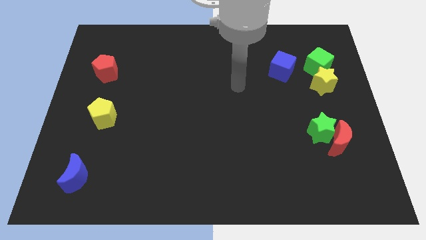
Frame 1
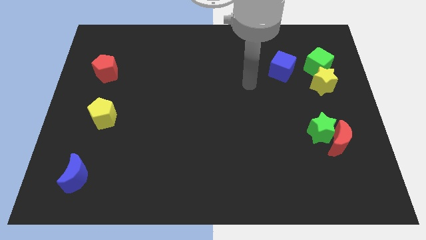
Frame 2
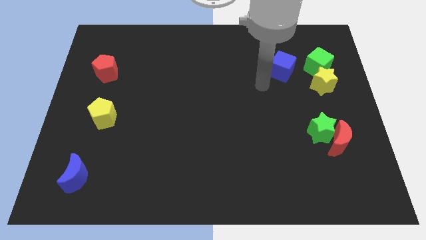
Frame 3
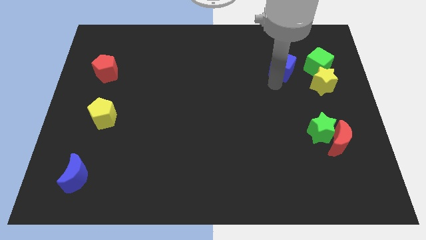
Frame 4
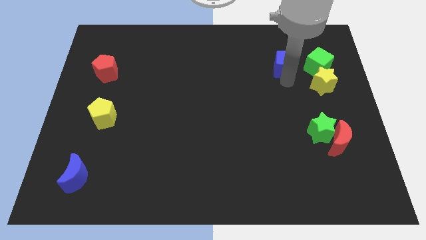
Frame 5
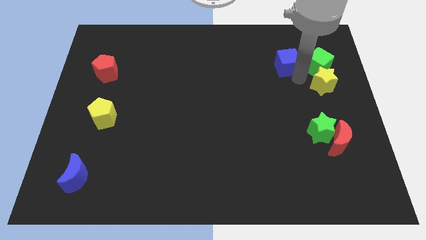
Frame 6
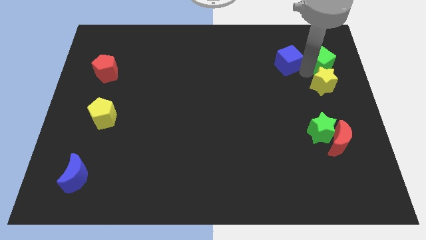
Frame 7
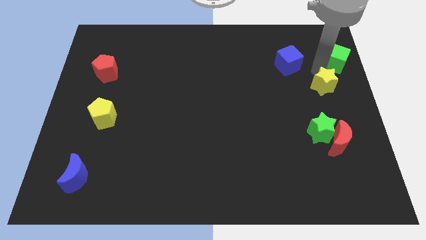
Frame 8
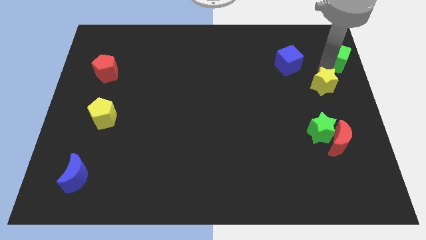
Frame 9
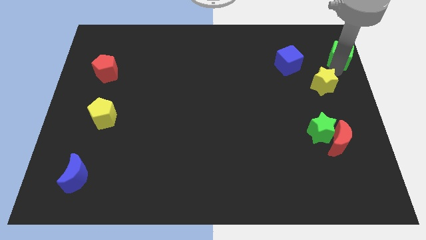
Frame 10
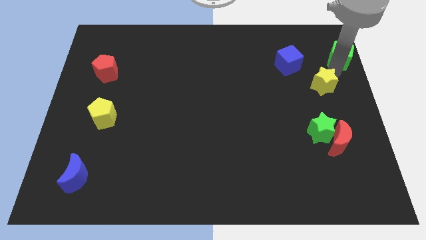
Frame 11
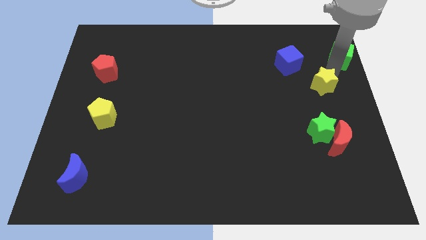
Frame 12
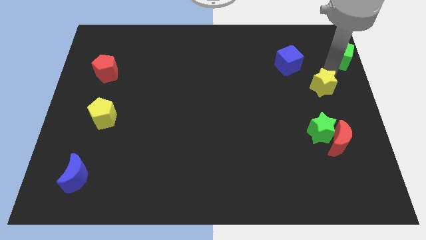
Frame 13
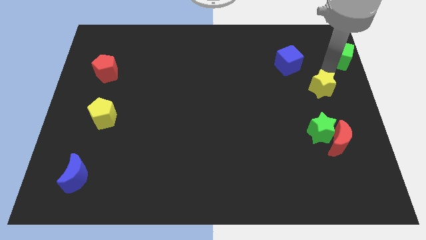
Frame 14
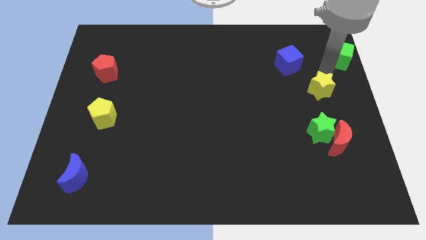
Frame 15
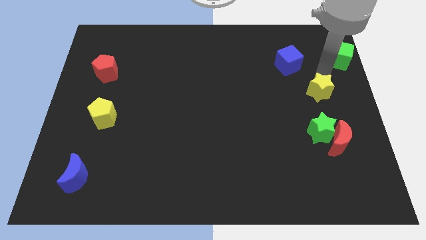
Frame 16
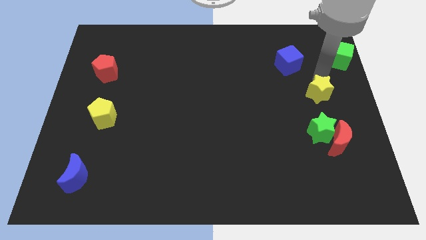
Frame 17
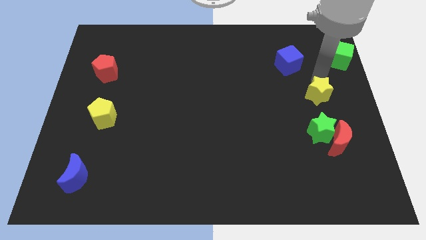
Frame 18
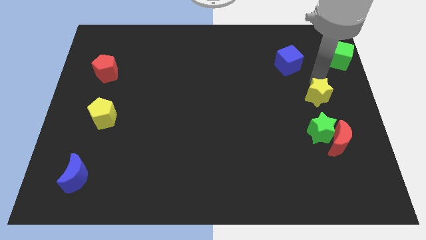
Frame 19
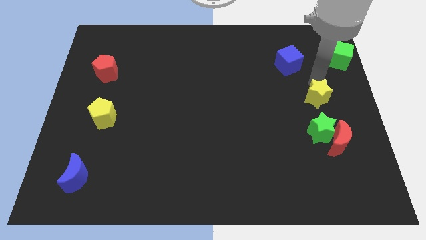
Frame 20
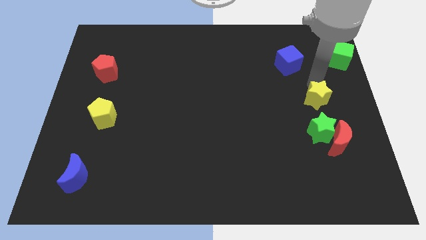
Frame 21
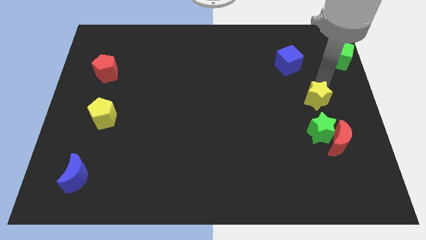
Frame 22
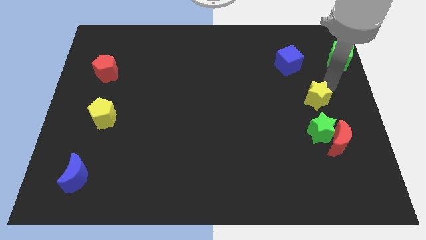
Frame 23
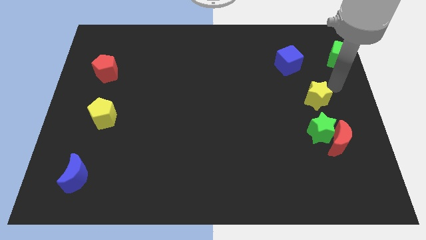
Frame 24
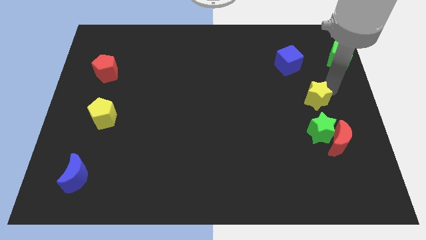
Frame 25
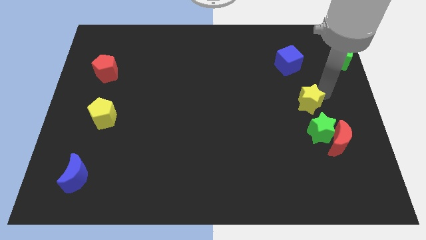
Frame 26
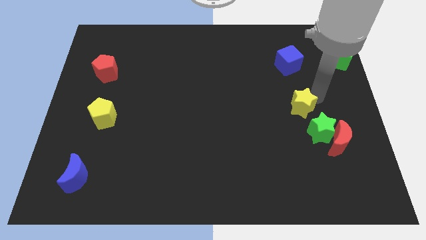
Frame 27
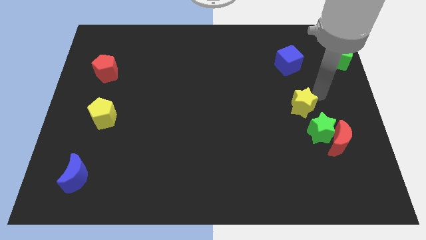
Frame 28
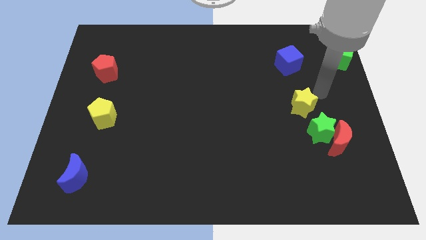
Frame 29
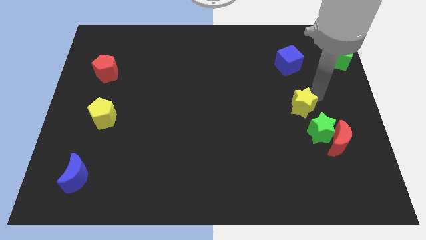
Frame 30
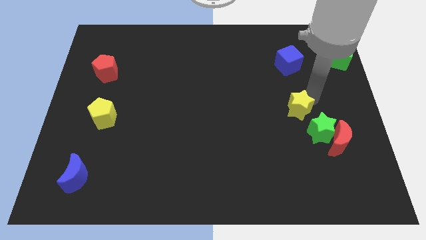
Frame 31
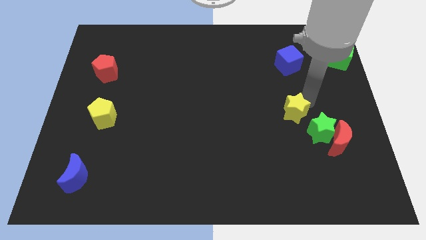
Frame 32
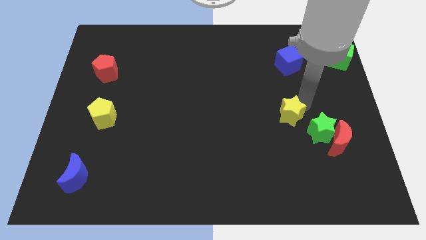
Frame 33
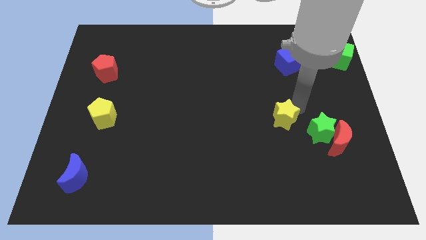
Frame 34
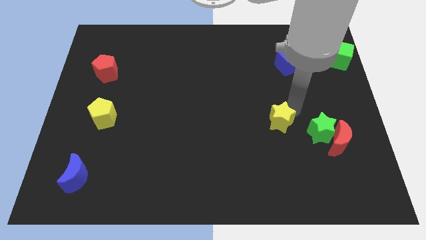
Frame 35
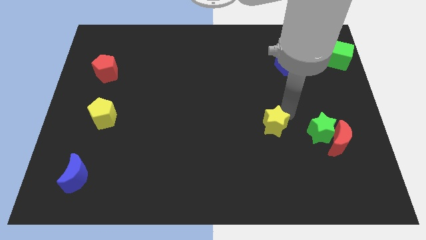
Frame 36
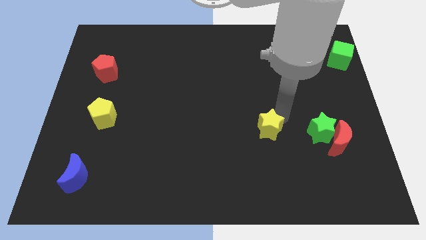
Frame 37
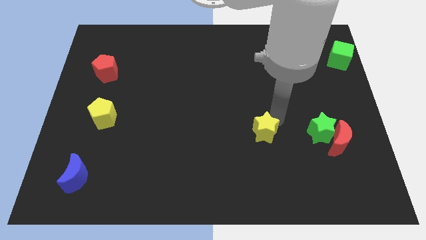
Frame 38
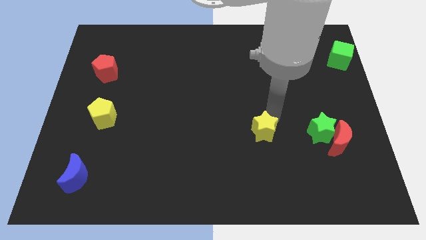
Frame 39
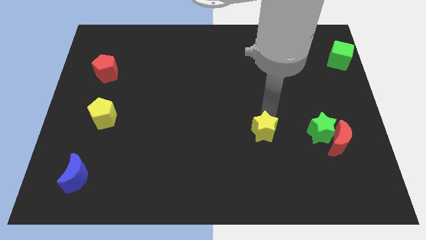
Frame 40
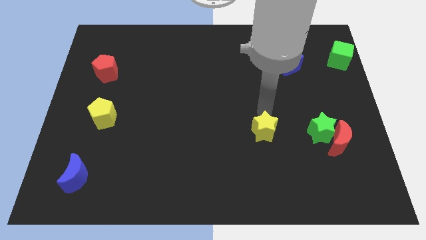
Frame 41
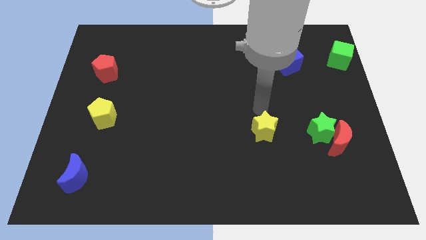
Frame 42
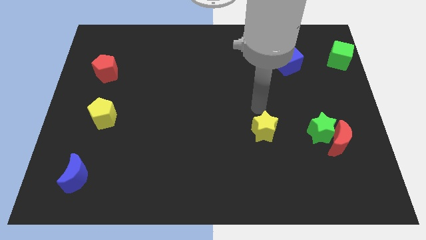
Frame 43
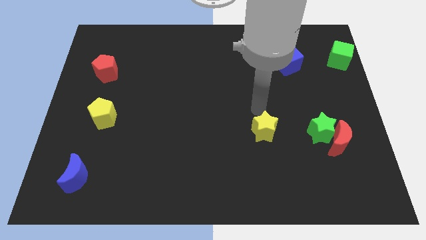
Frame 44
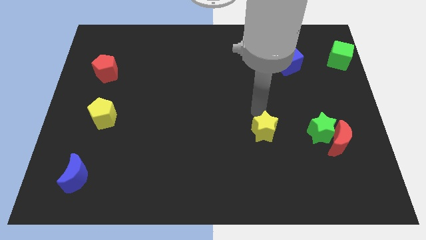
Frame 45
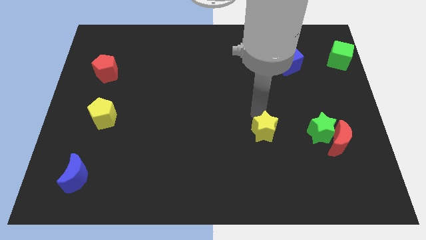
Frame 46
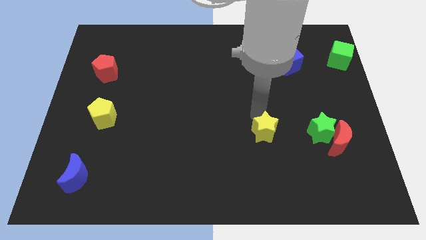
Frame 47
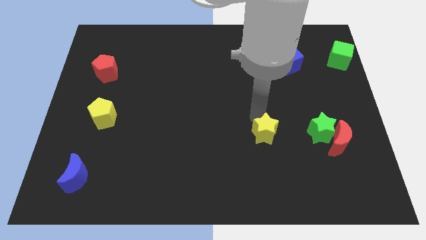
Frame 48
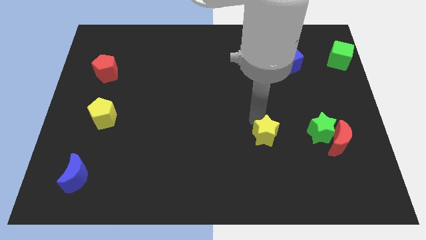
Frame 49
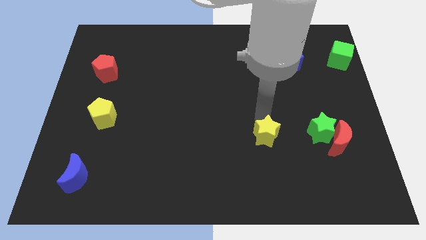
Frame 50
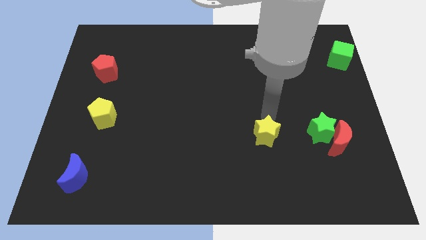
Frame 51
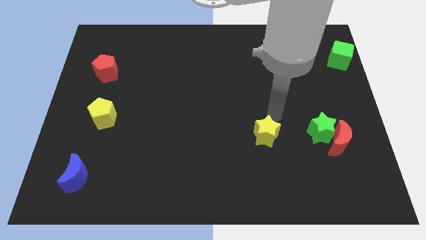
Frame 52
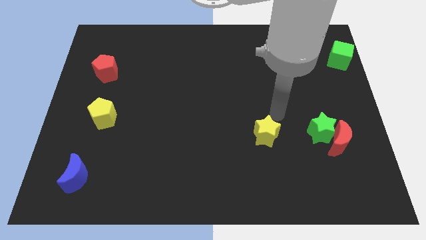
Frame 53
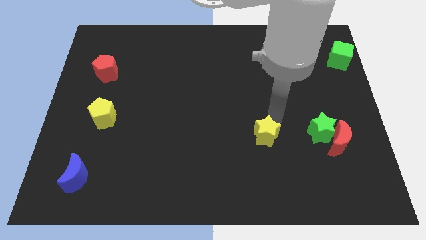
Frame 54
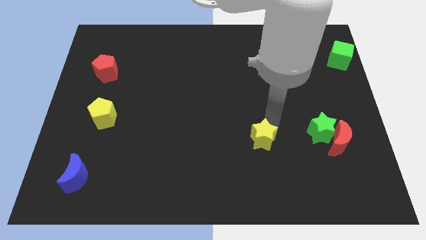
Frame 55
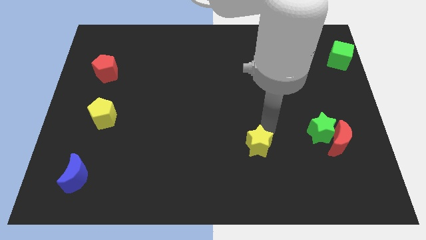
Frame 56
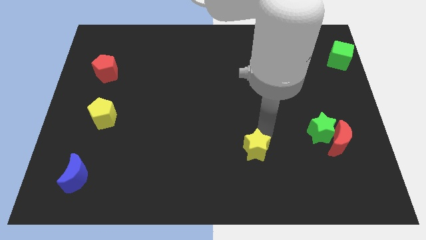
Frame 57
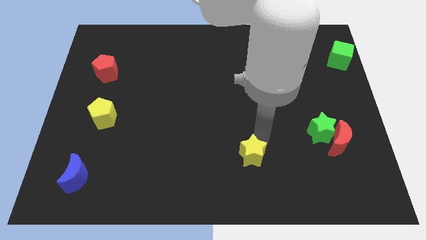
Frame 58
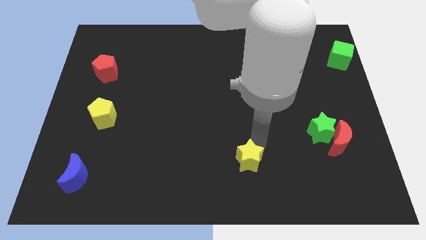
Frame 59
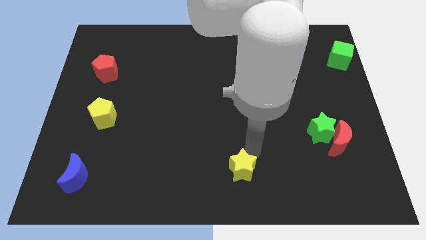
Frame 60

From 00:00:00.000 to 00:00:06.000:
slide the yellow star to the bottom side
